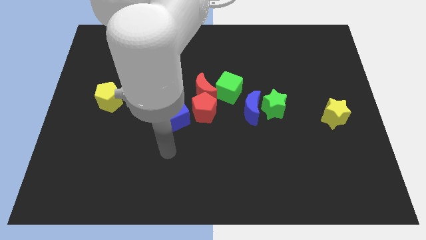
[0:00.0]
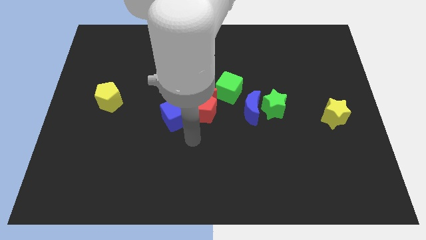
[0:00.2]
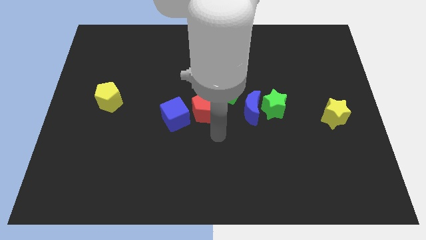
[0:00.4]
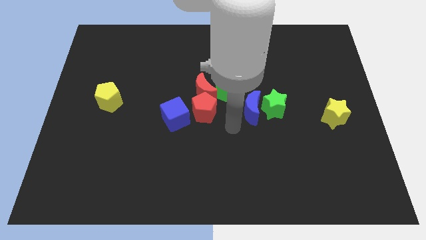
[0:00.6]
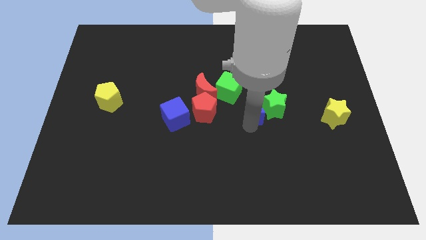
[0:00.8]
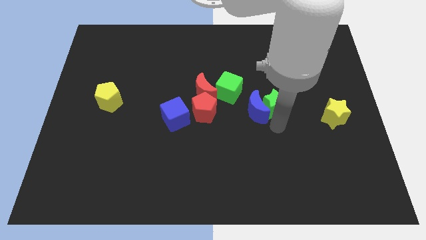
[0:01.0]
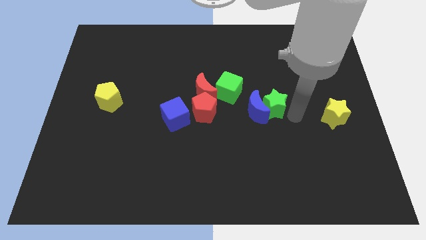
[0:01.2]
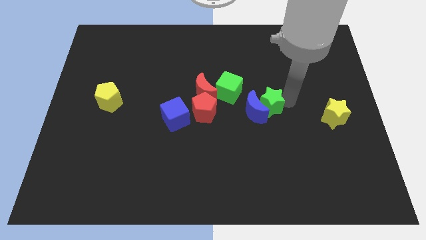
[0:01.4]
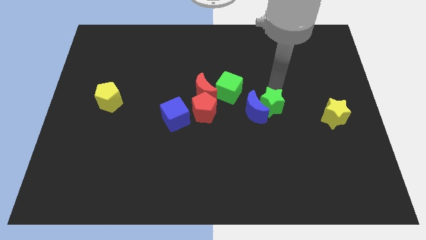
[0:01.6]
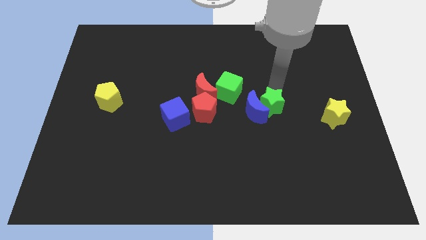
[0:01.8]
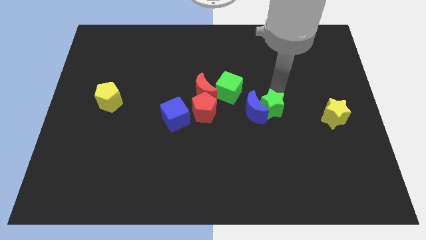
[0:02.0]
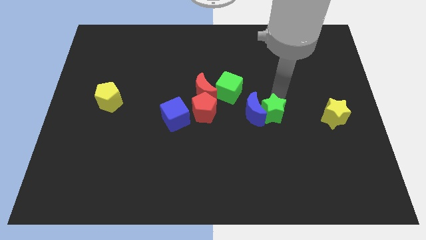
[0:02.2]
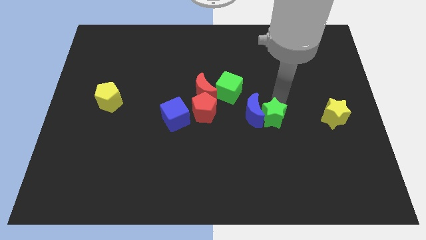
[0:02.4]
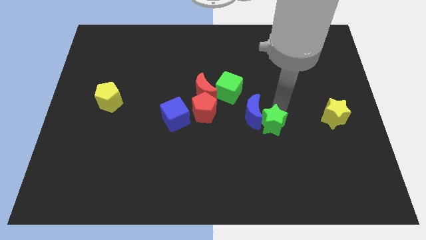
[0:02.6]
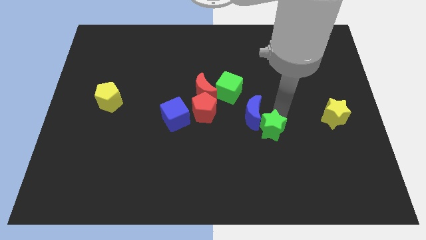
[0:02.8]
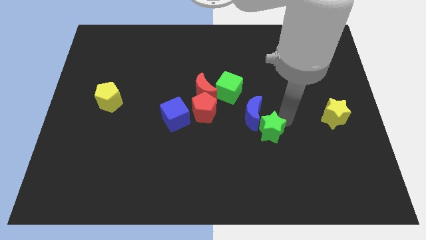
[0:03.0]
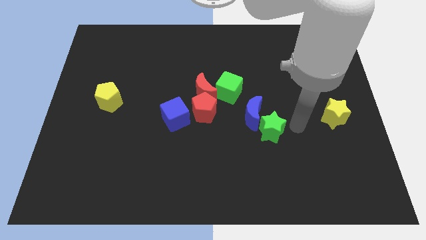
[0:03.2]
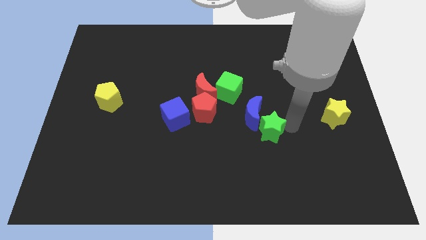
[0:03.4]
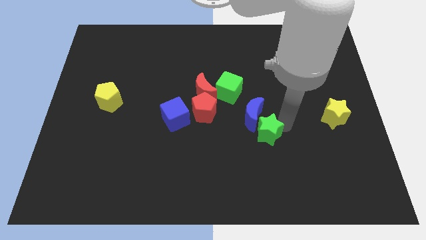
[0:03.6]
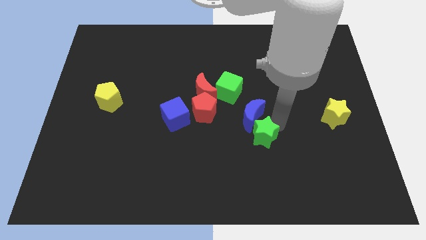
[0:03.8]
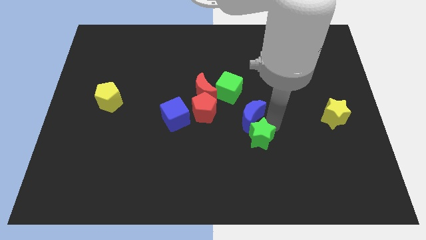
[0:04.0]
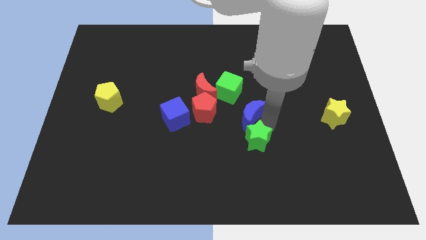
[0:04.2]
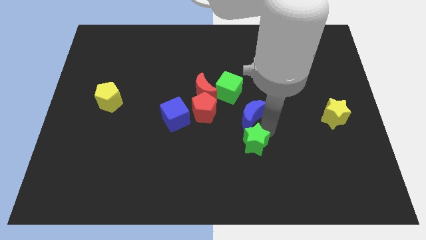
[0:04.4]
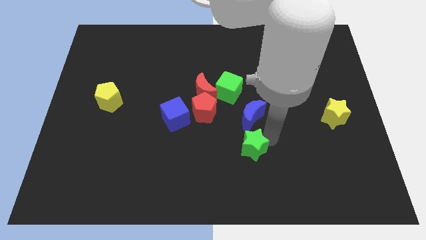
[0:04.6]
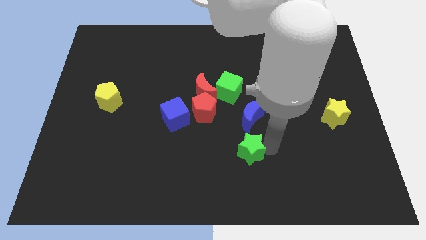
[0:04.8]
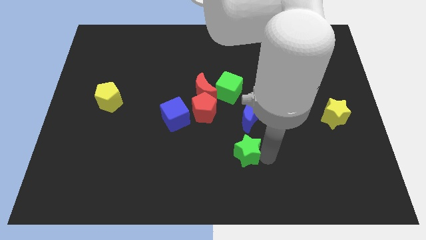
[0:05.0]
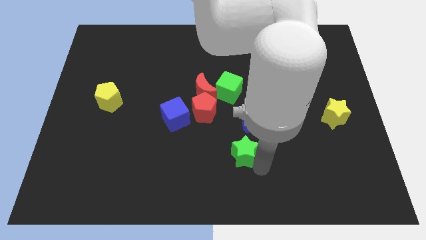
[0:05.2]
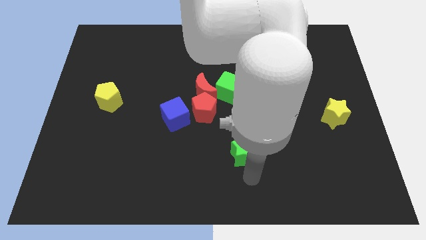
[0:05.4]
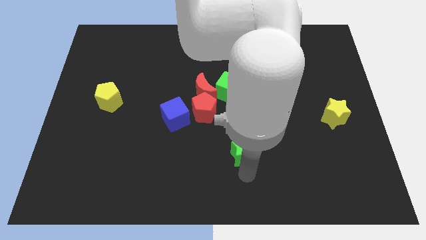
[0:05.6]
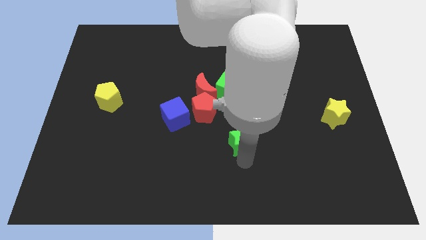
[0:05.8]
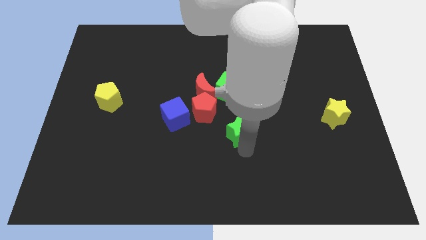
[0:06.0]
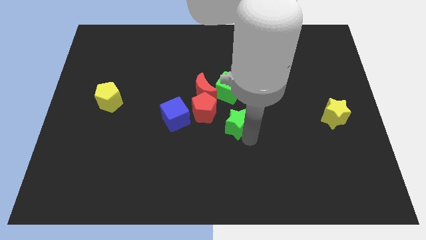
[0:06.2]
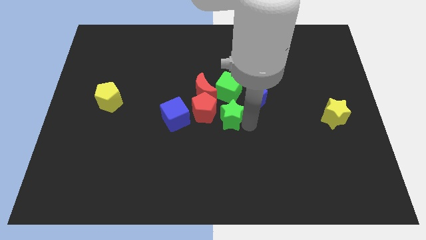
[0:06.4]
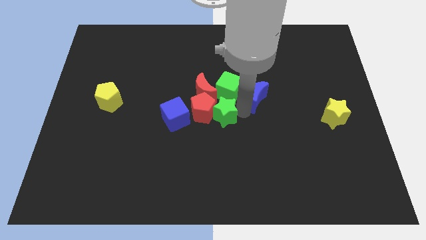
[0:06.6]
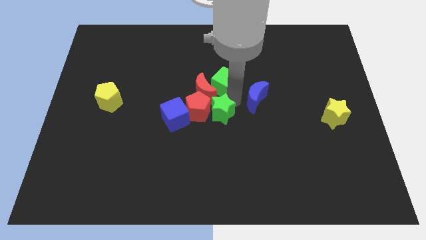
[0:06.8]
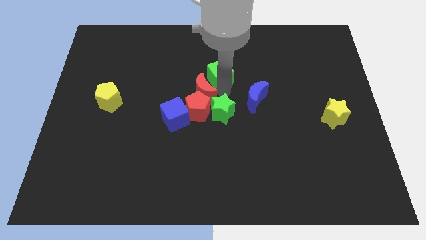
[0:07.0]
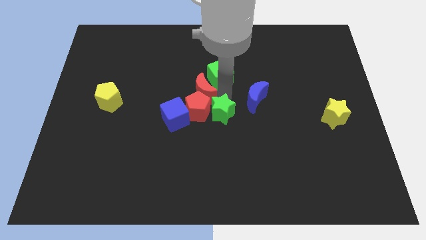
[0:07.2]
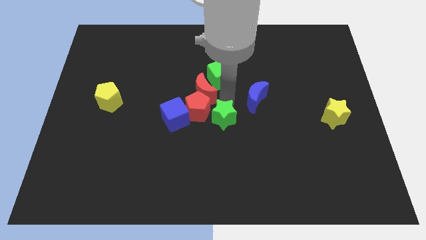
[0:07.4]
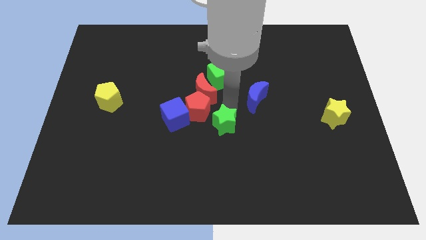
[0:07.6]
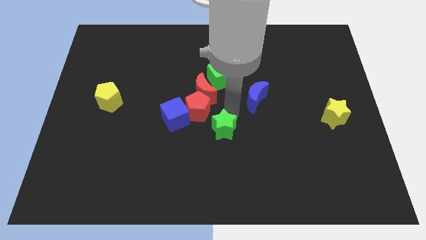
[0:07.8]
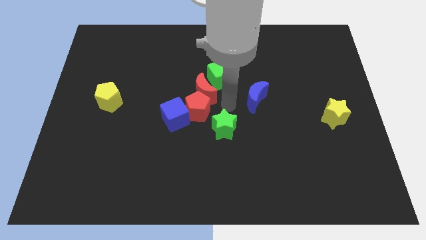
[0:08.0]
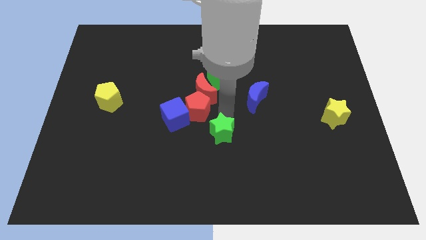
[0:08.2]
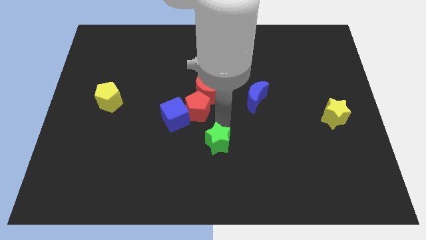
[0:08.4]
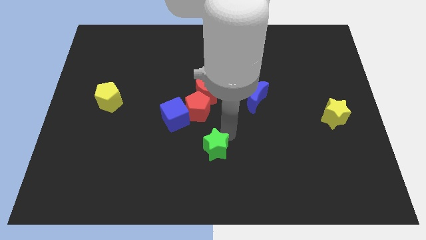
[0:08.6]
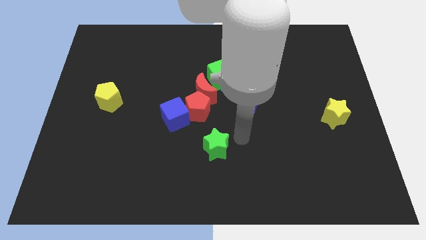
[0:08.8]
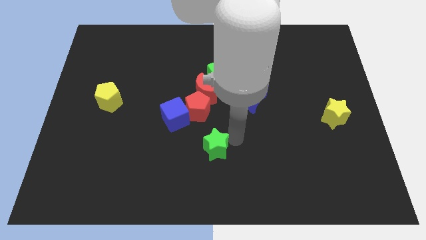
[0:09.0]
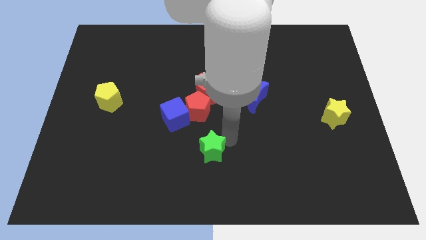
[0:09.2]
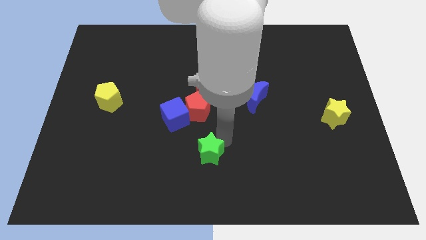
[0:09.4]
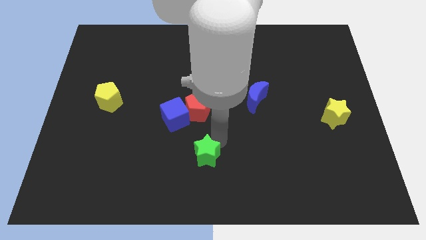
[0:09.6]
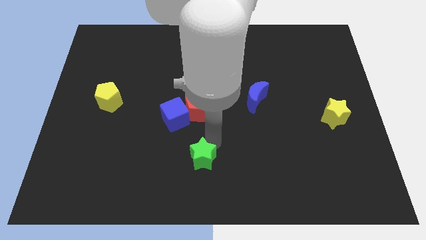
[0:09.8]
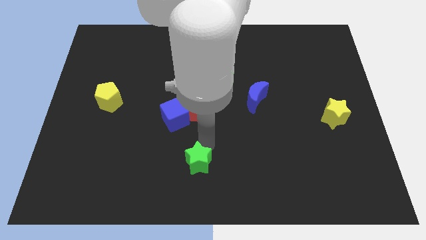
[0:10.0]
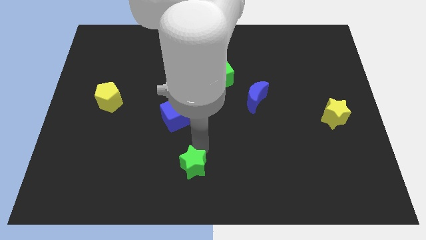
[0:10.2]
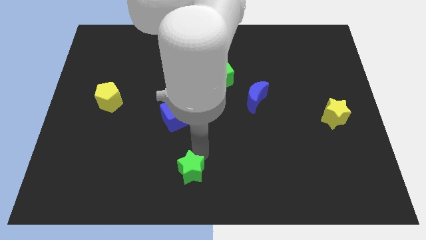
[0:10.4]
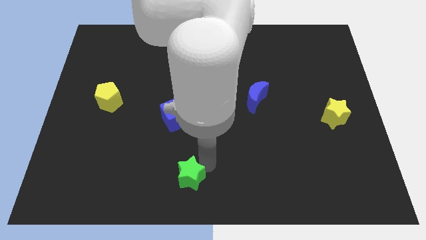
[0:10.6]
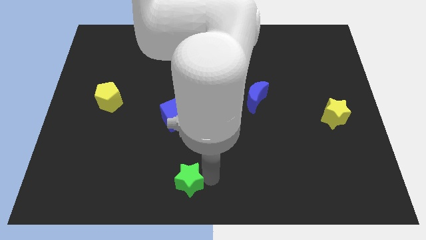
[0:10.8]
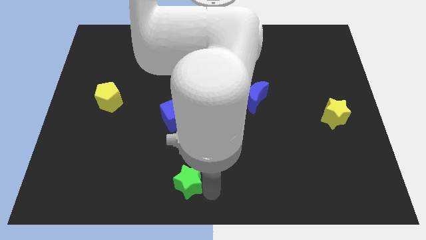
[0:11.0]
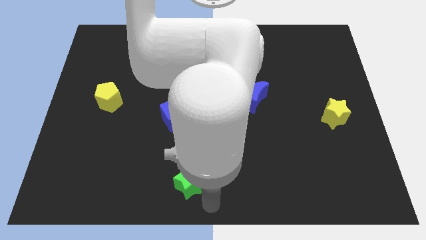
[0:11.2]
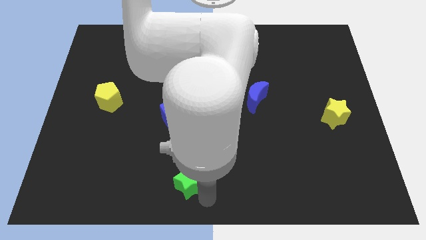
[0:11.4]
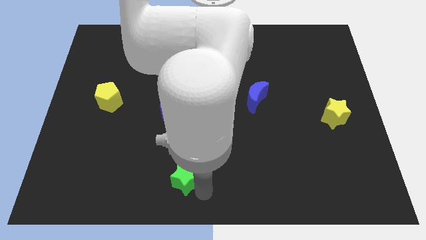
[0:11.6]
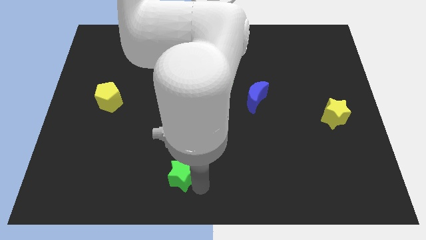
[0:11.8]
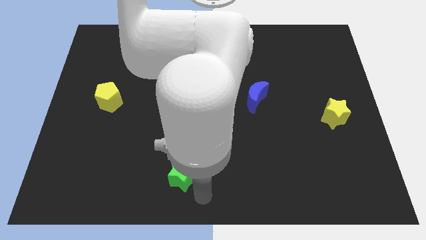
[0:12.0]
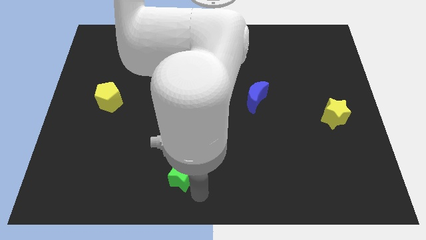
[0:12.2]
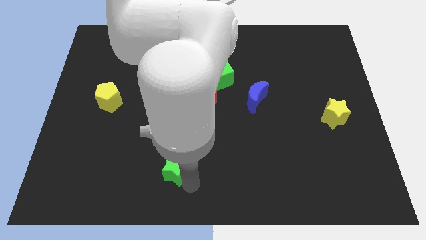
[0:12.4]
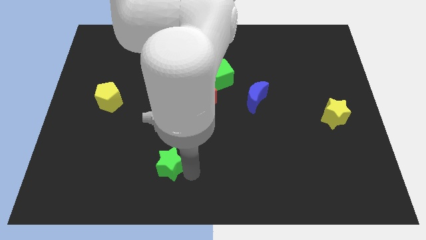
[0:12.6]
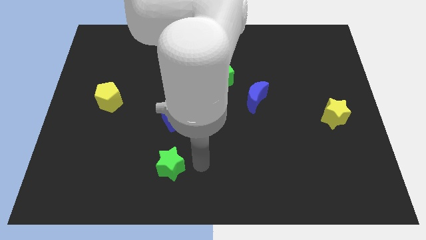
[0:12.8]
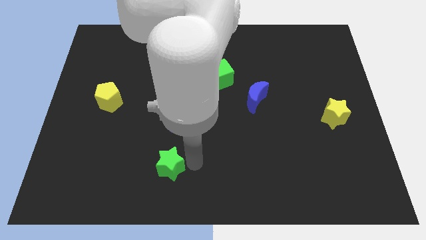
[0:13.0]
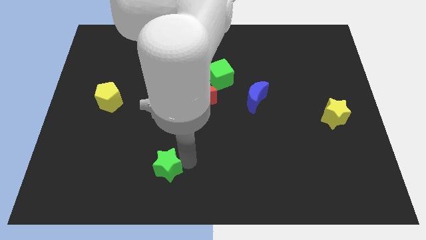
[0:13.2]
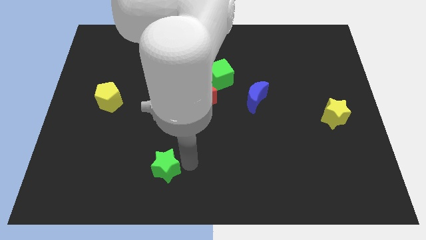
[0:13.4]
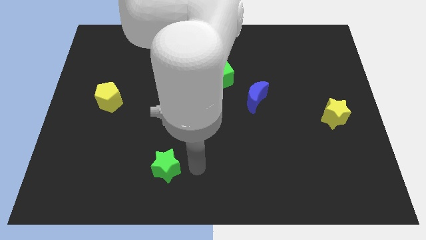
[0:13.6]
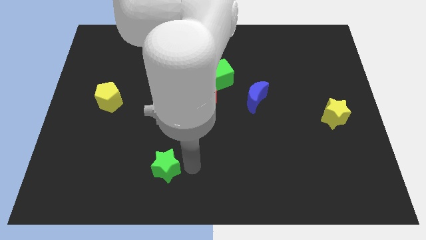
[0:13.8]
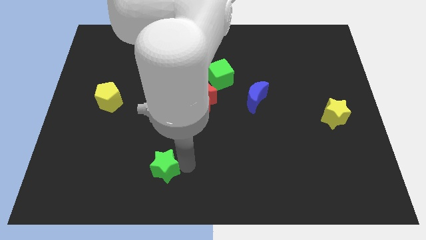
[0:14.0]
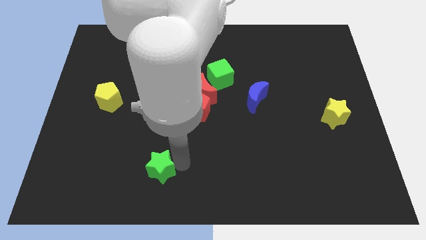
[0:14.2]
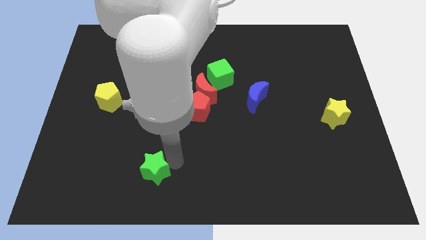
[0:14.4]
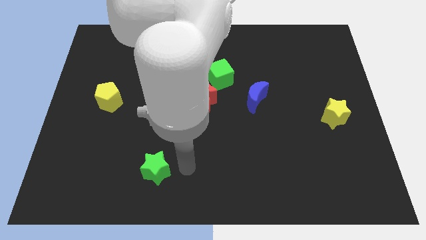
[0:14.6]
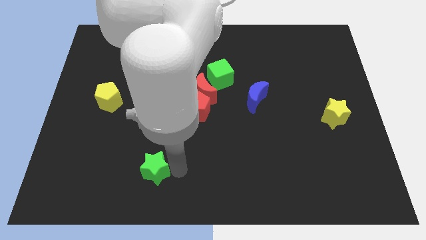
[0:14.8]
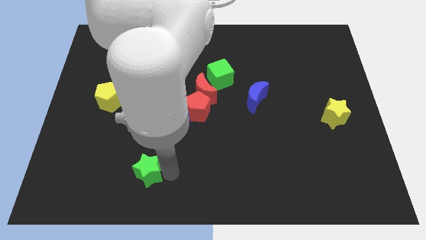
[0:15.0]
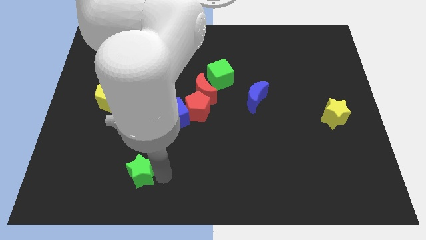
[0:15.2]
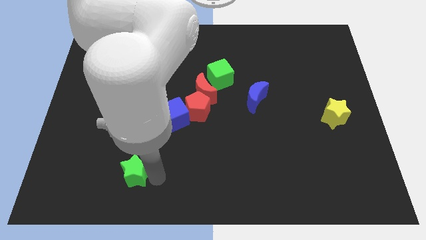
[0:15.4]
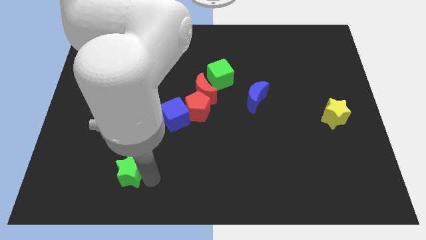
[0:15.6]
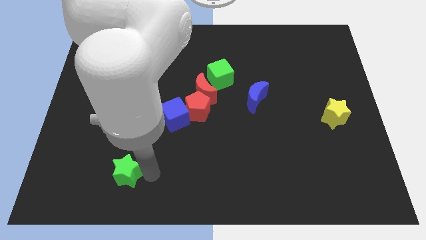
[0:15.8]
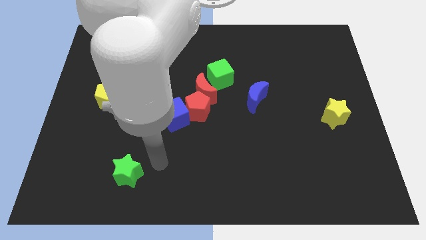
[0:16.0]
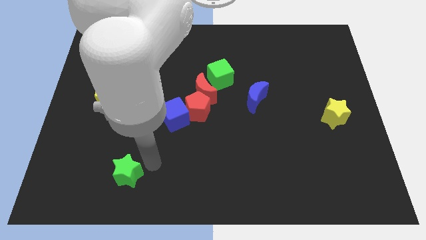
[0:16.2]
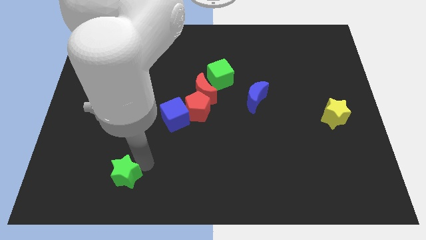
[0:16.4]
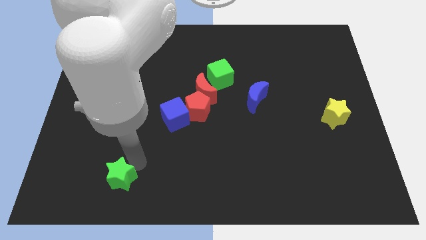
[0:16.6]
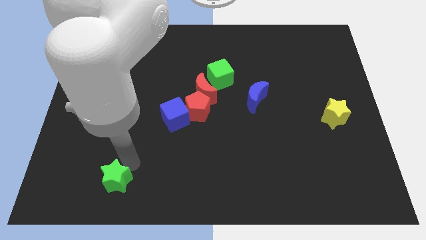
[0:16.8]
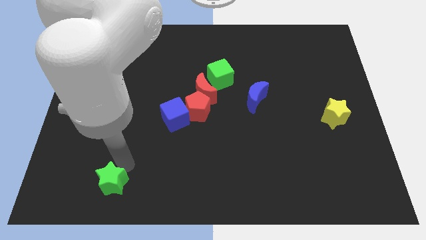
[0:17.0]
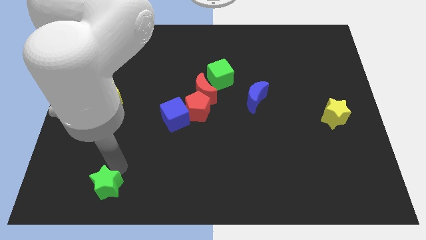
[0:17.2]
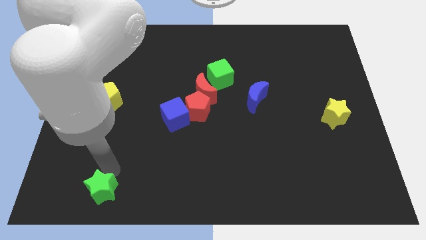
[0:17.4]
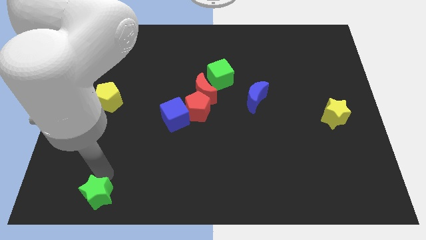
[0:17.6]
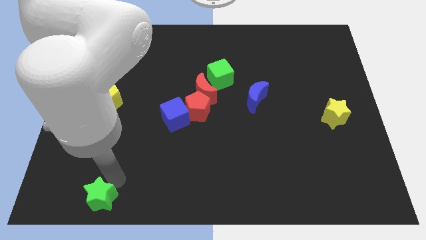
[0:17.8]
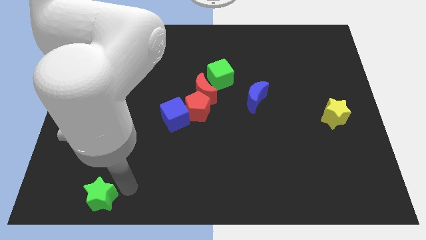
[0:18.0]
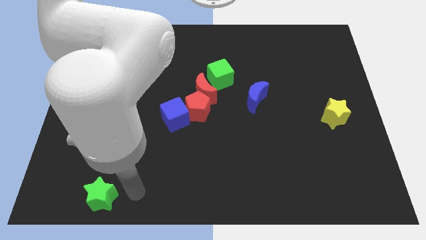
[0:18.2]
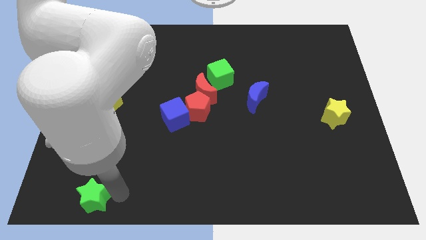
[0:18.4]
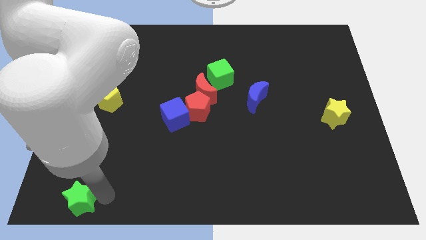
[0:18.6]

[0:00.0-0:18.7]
push the green star to the bottom left
